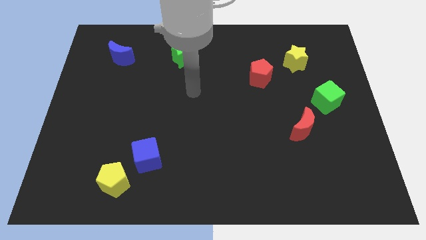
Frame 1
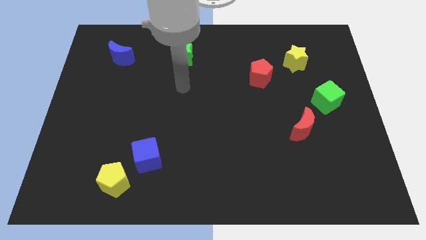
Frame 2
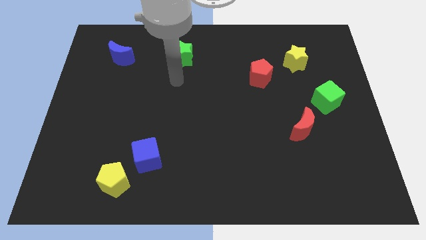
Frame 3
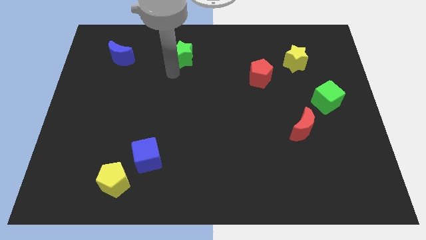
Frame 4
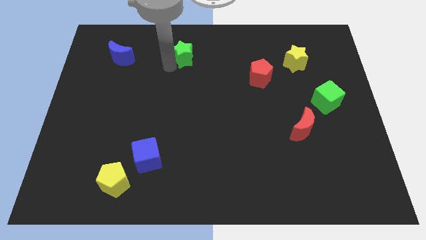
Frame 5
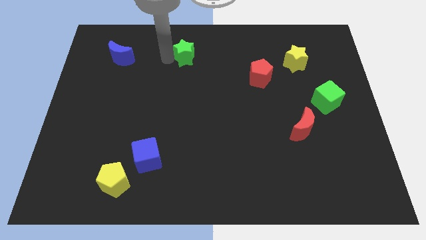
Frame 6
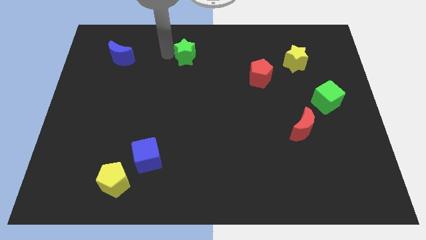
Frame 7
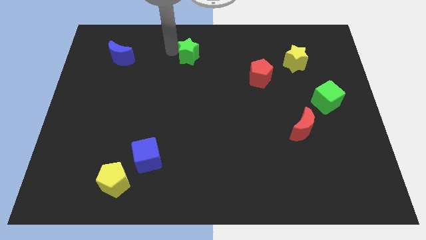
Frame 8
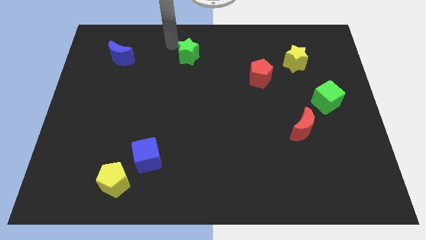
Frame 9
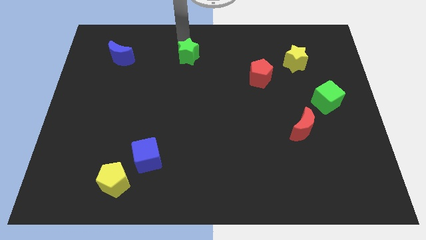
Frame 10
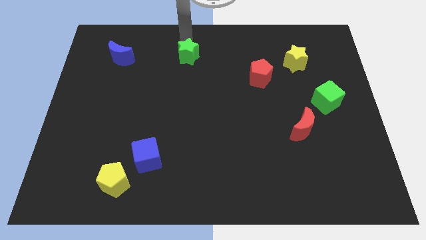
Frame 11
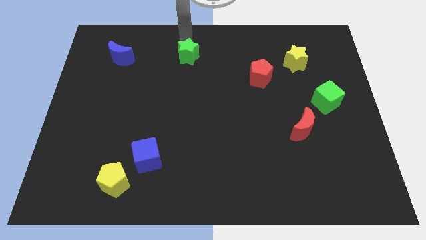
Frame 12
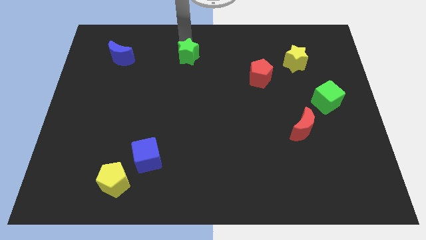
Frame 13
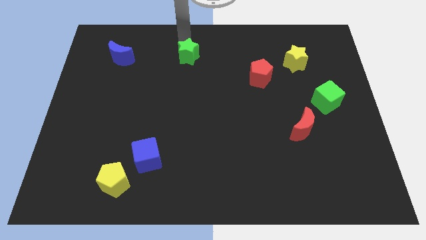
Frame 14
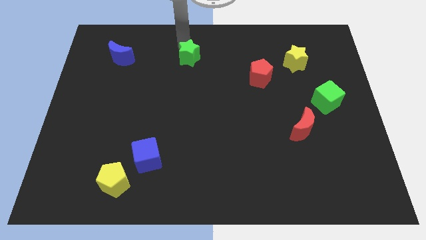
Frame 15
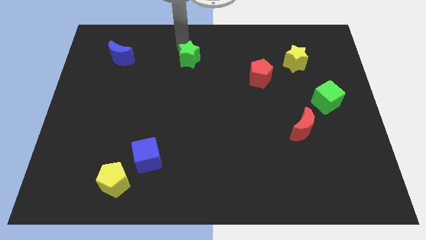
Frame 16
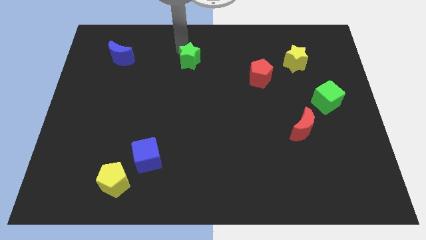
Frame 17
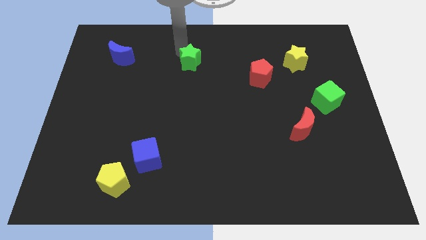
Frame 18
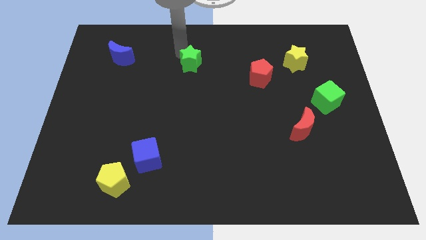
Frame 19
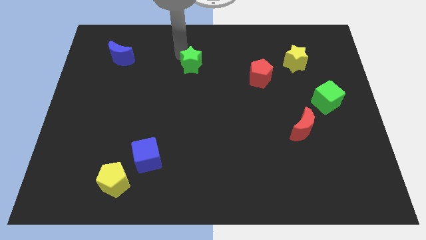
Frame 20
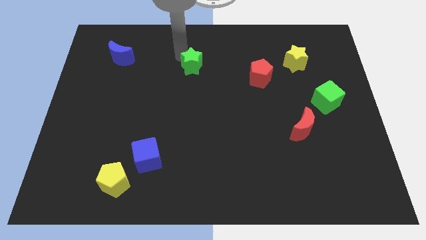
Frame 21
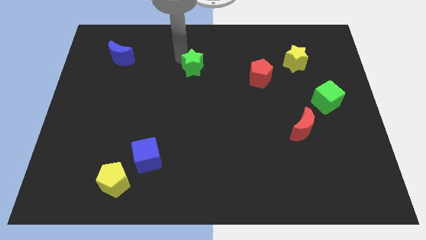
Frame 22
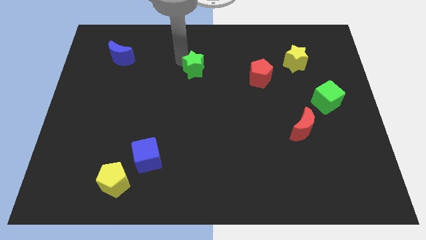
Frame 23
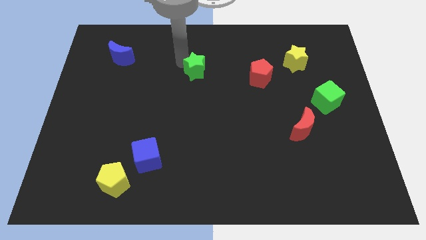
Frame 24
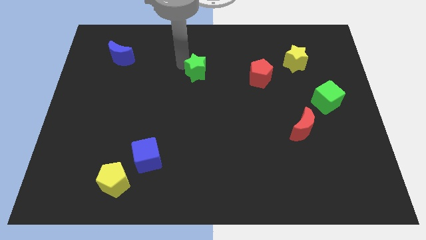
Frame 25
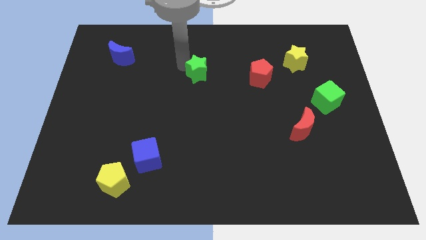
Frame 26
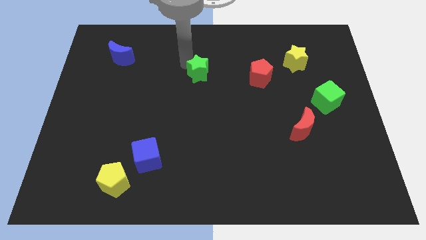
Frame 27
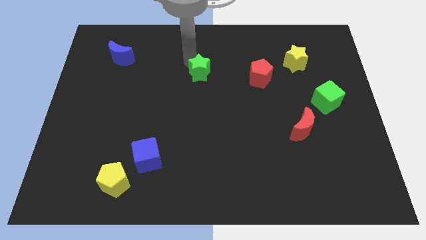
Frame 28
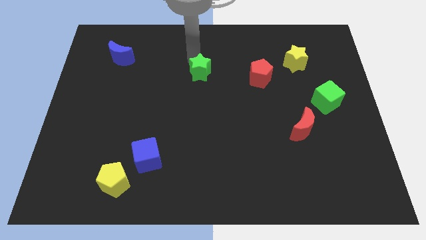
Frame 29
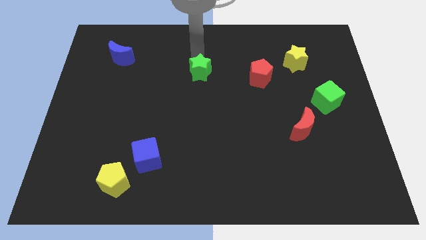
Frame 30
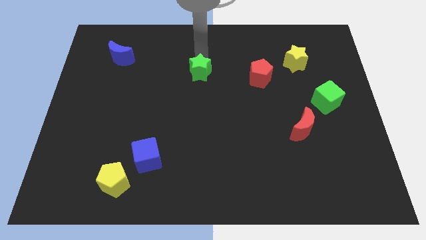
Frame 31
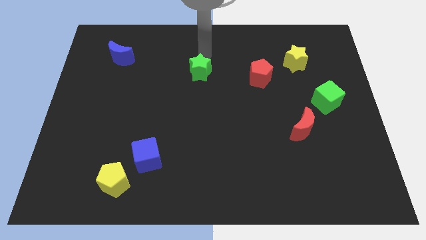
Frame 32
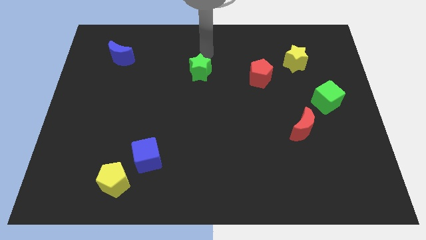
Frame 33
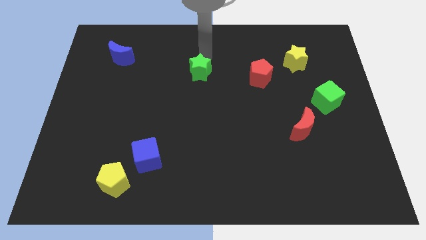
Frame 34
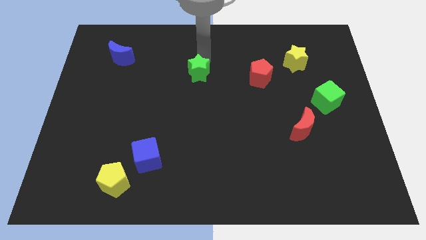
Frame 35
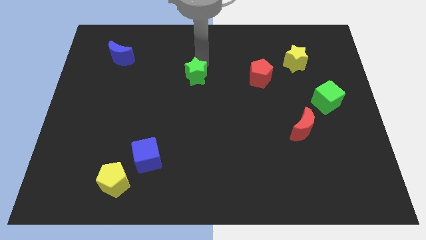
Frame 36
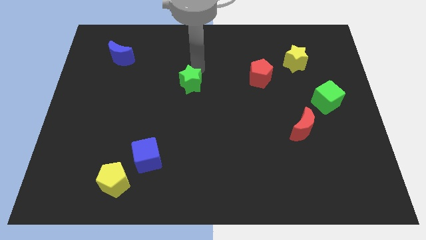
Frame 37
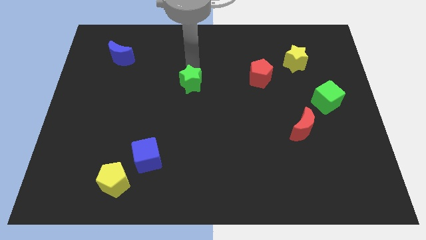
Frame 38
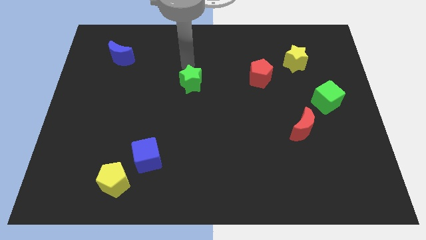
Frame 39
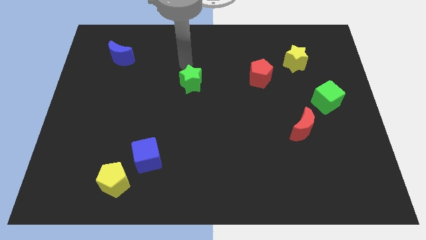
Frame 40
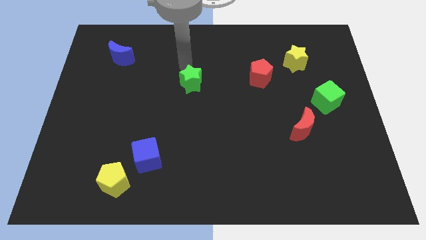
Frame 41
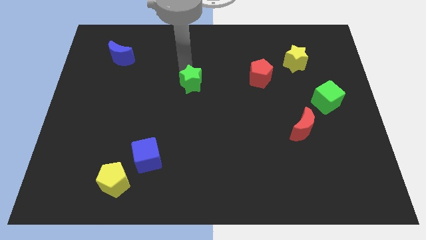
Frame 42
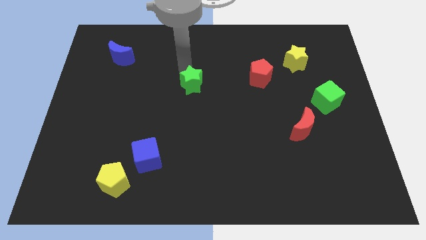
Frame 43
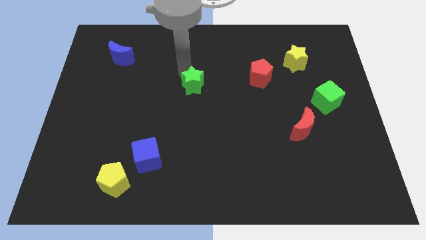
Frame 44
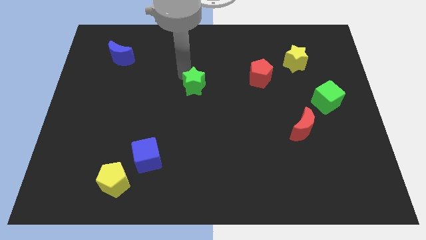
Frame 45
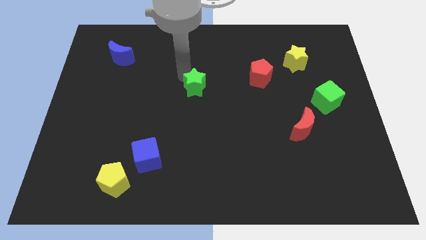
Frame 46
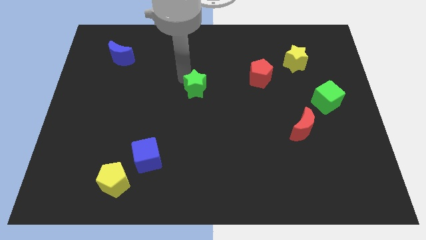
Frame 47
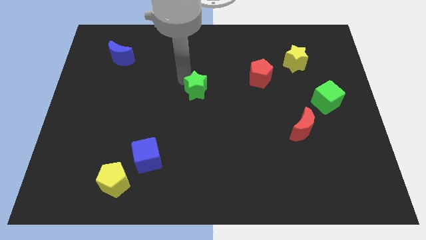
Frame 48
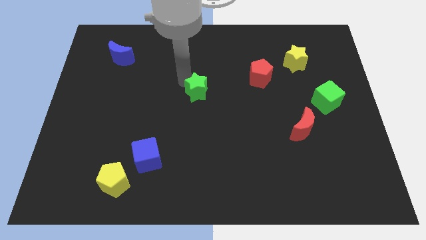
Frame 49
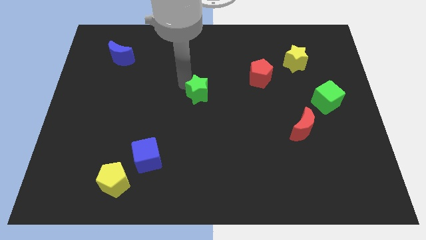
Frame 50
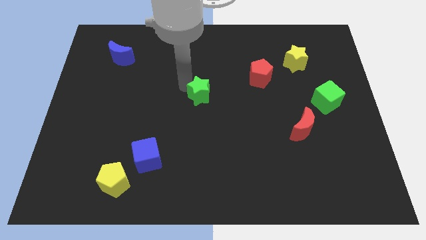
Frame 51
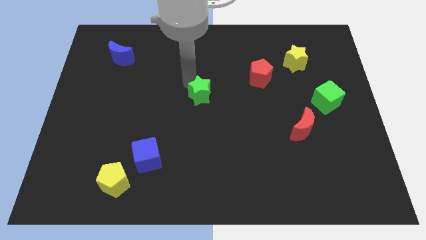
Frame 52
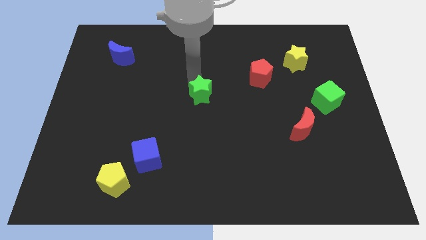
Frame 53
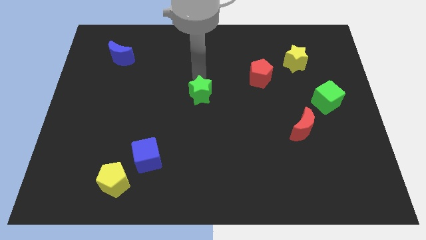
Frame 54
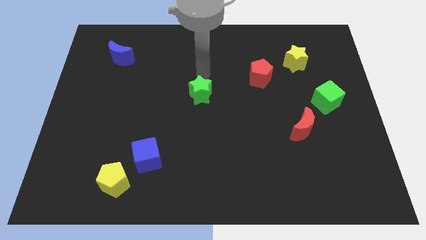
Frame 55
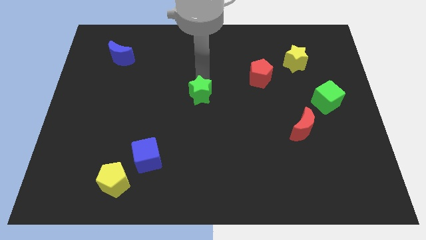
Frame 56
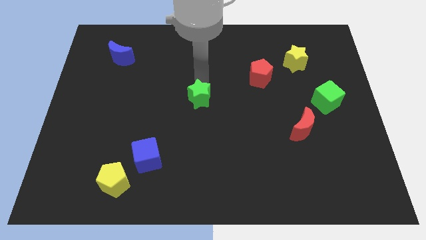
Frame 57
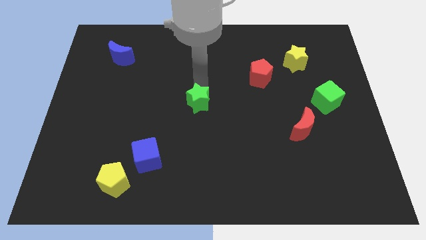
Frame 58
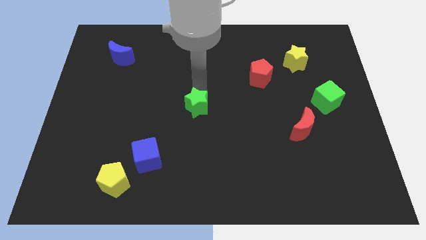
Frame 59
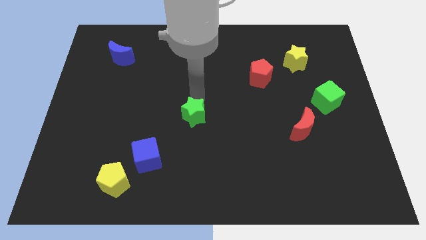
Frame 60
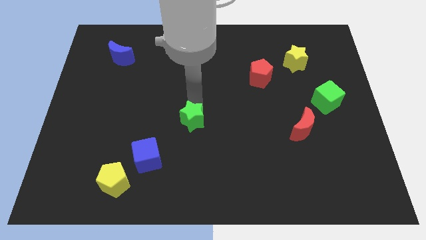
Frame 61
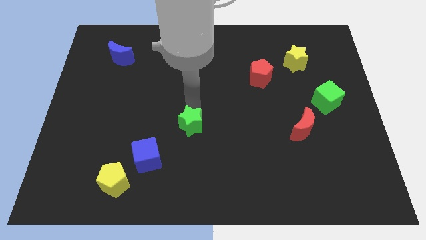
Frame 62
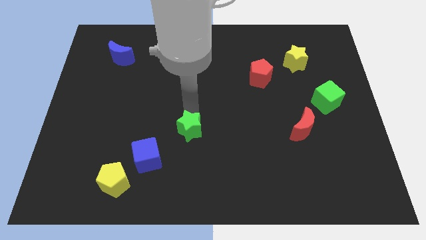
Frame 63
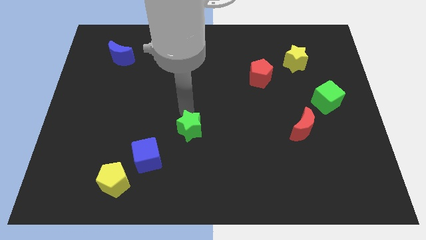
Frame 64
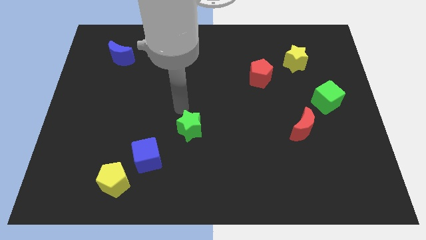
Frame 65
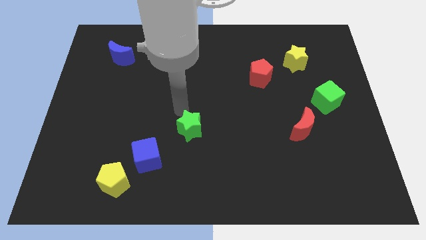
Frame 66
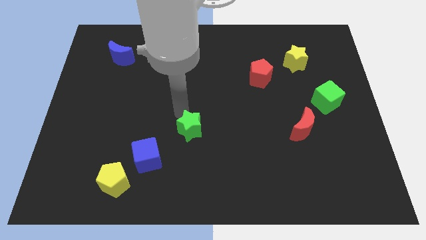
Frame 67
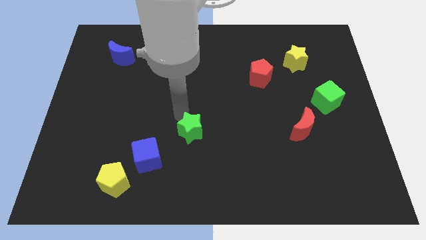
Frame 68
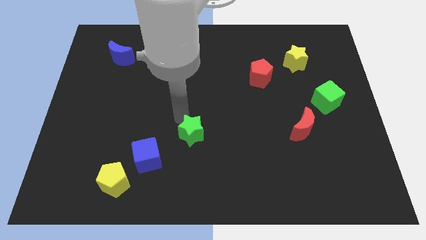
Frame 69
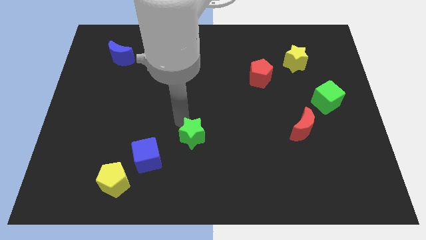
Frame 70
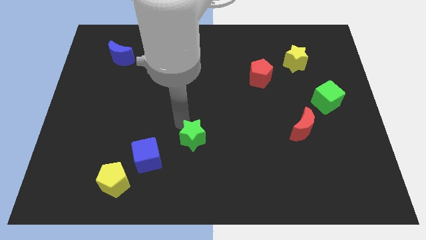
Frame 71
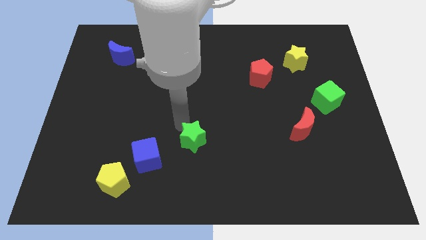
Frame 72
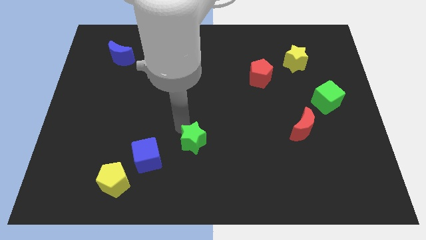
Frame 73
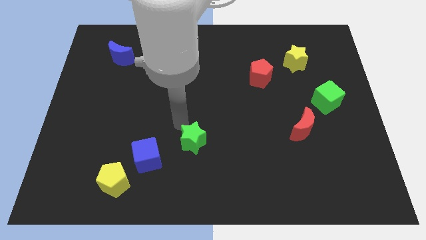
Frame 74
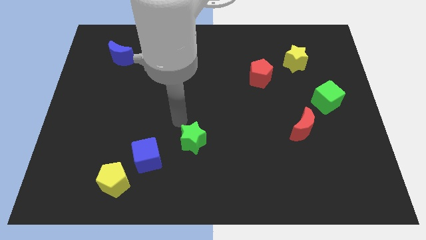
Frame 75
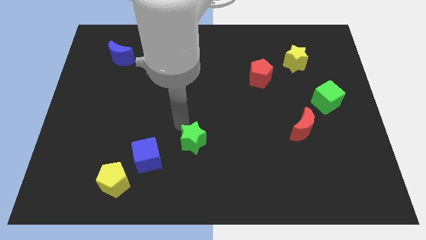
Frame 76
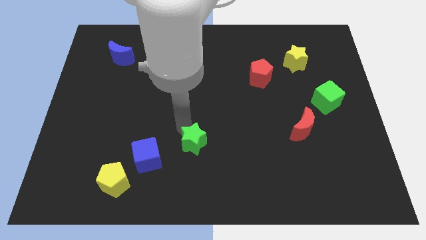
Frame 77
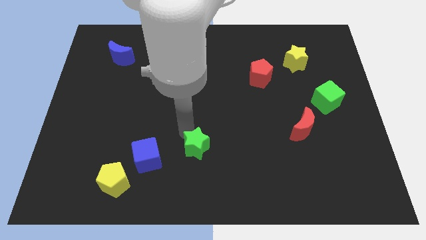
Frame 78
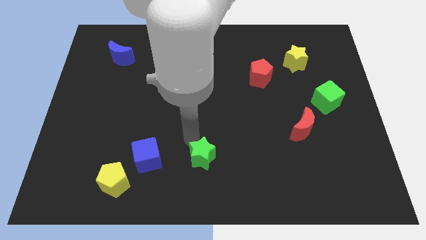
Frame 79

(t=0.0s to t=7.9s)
put the green star to the bottom
